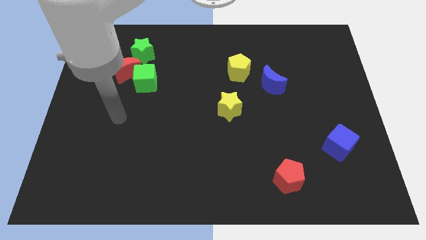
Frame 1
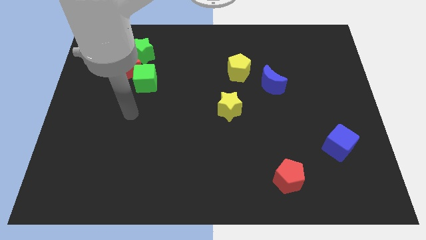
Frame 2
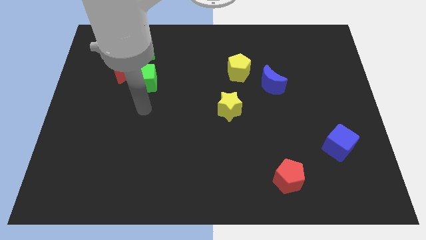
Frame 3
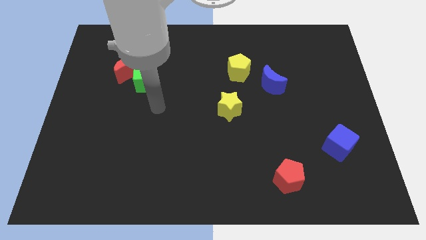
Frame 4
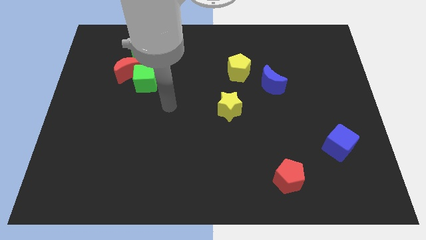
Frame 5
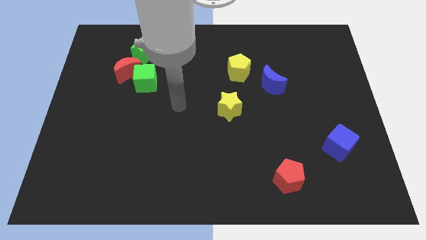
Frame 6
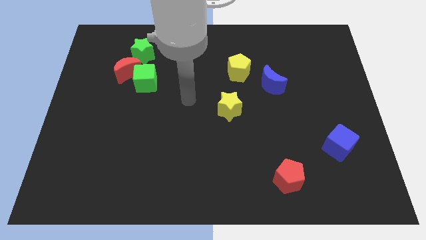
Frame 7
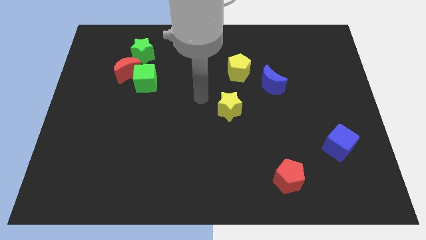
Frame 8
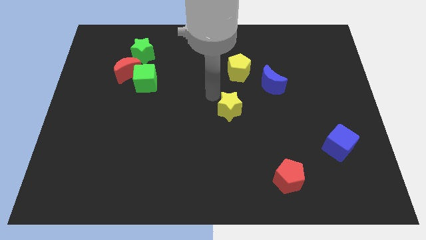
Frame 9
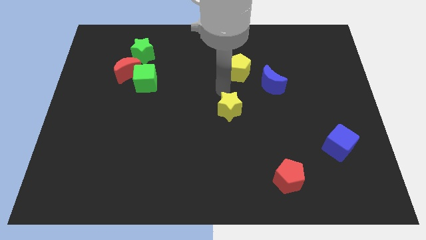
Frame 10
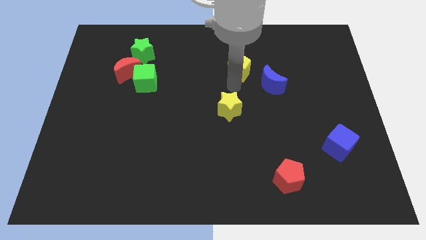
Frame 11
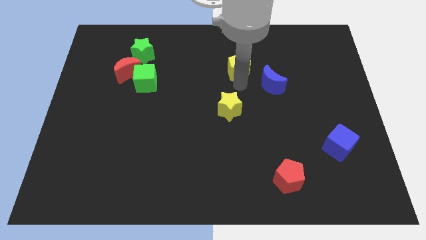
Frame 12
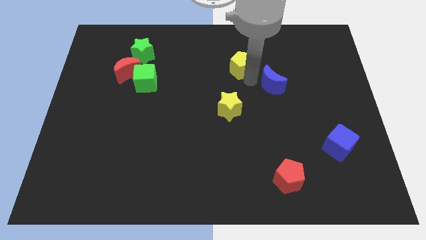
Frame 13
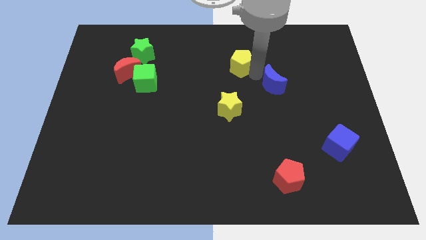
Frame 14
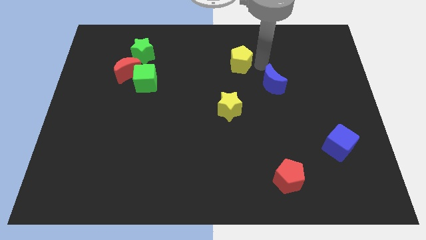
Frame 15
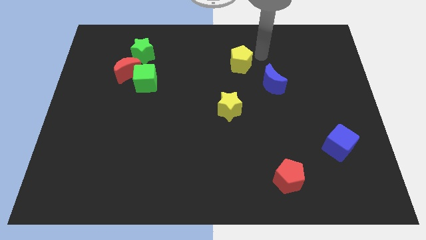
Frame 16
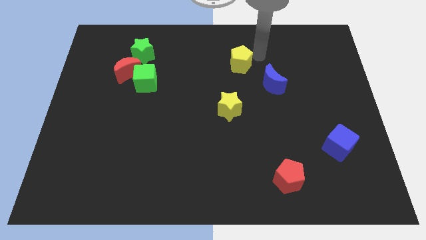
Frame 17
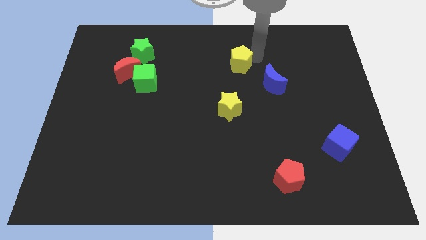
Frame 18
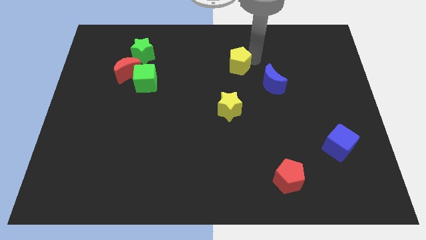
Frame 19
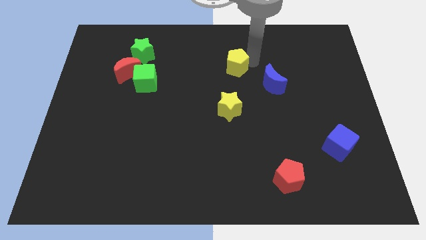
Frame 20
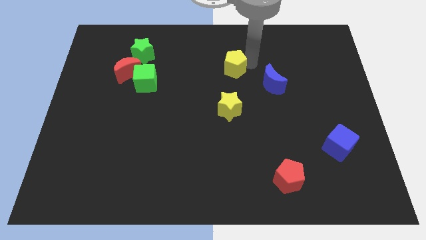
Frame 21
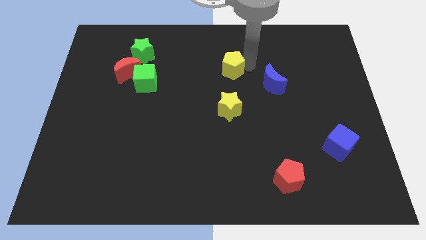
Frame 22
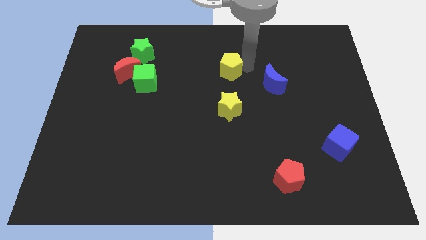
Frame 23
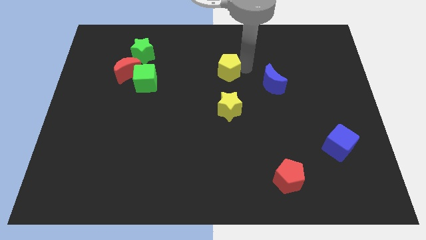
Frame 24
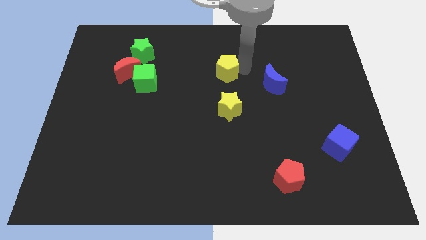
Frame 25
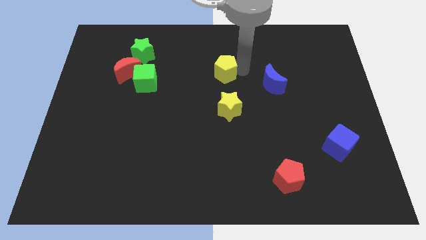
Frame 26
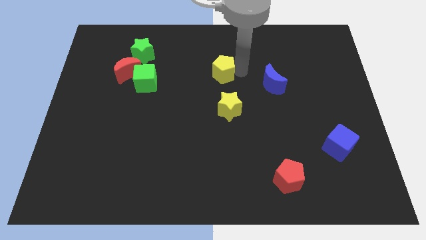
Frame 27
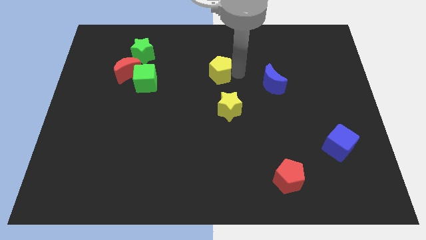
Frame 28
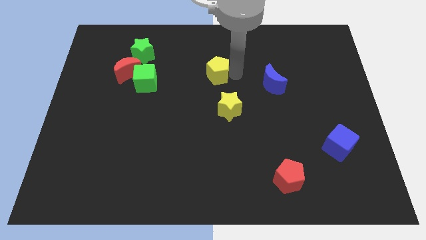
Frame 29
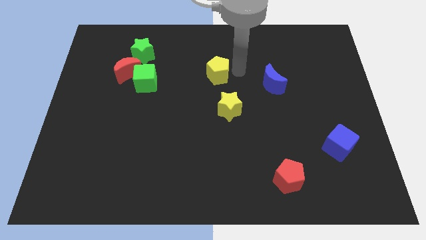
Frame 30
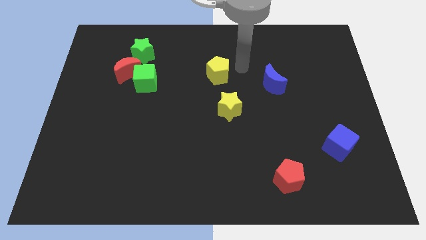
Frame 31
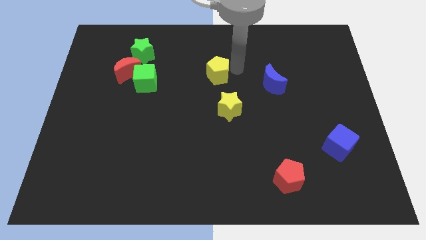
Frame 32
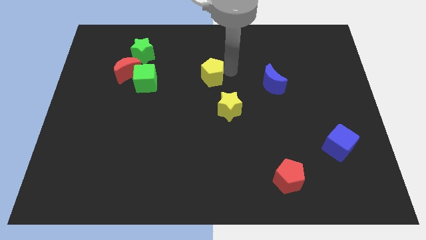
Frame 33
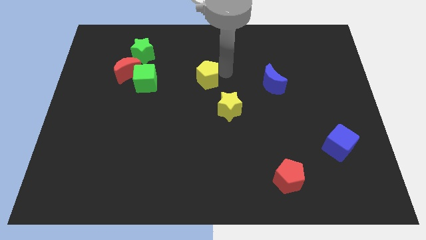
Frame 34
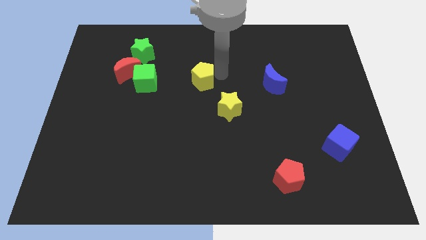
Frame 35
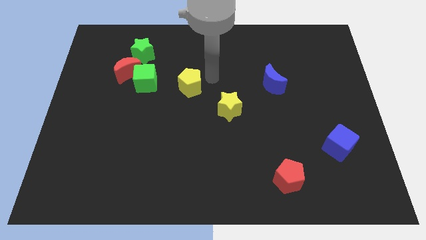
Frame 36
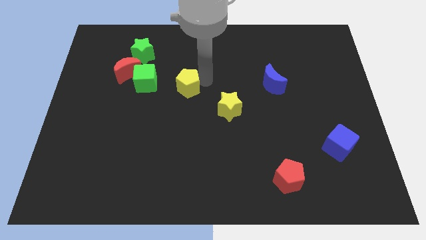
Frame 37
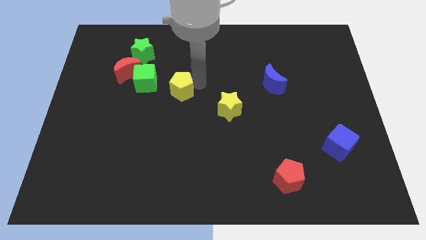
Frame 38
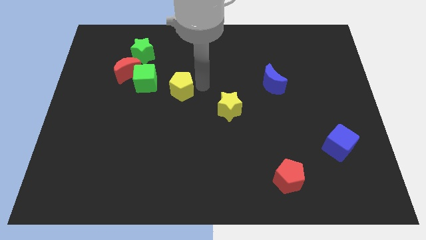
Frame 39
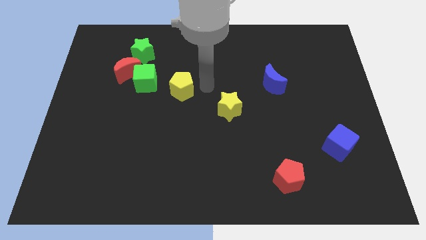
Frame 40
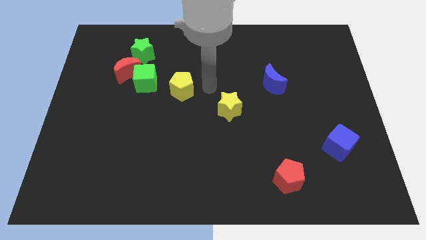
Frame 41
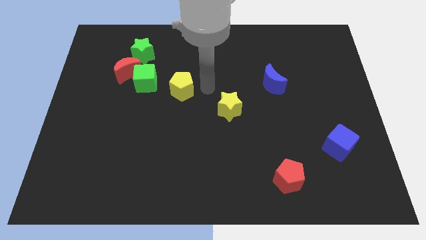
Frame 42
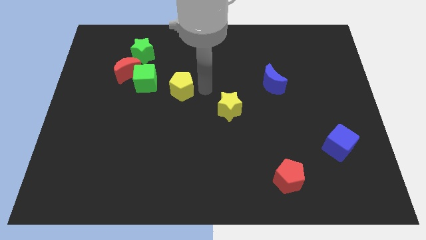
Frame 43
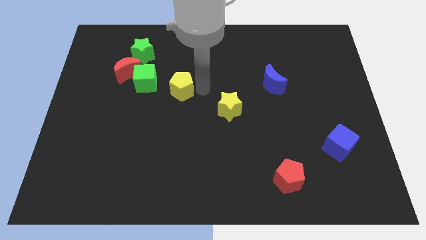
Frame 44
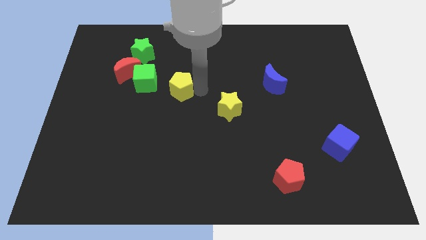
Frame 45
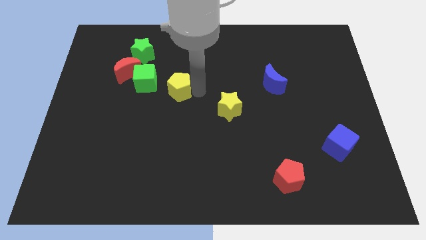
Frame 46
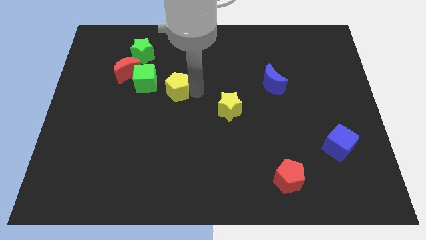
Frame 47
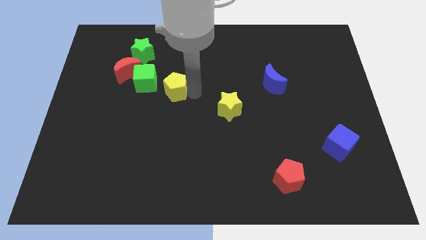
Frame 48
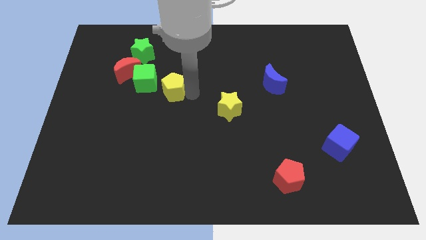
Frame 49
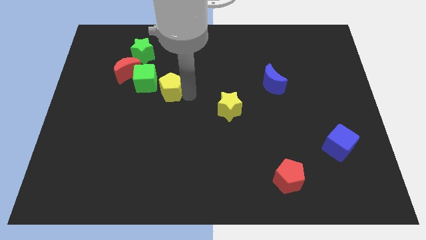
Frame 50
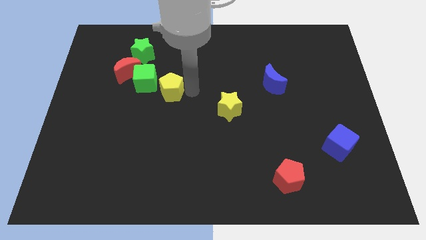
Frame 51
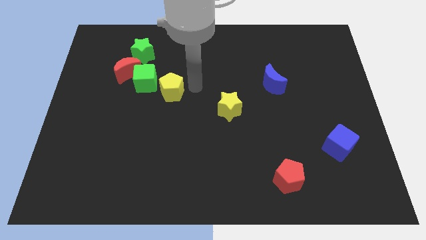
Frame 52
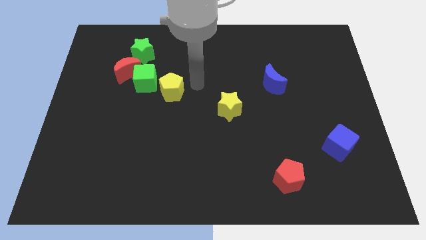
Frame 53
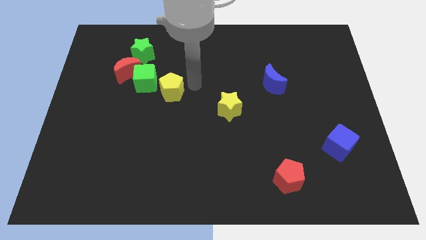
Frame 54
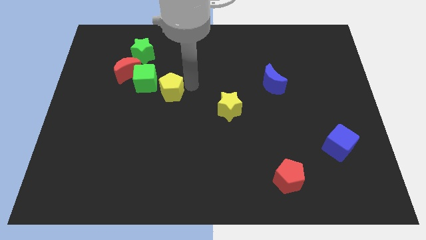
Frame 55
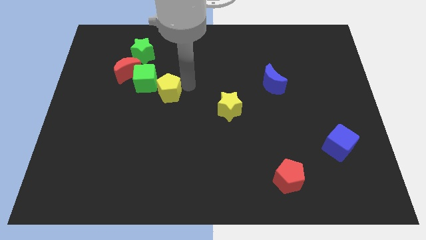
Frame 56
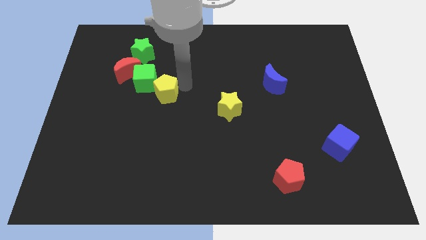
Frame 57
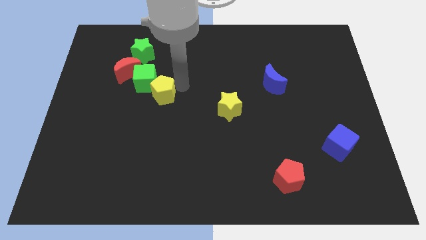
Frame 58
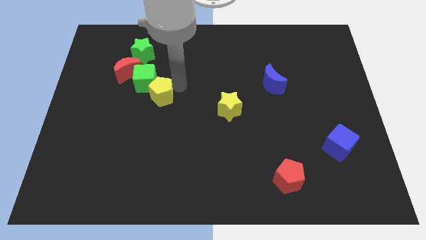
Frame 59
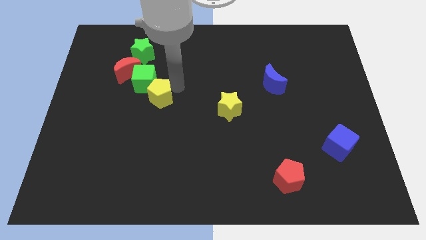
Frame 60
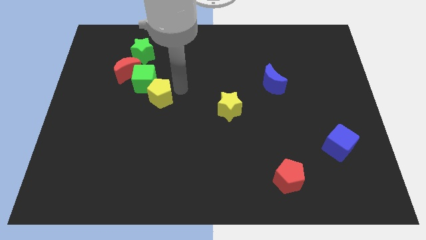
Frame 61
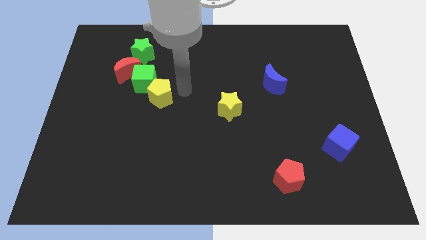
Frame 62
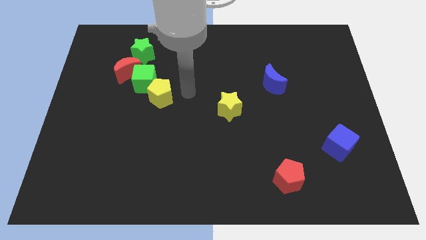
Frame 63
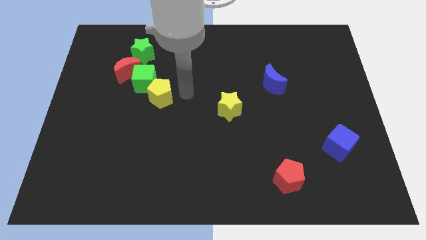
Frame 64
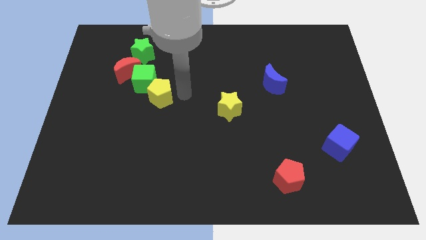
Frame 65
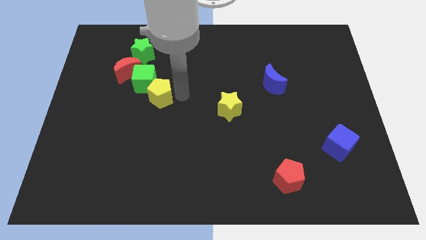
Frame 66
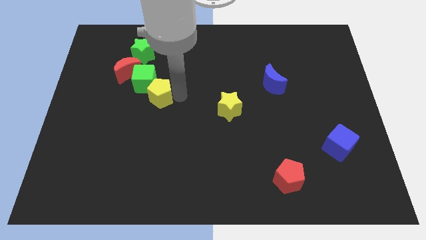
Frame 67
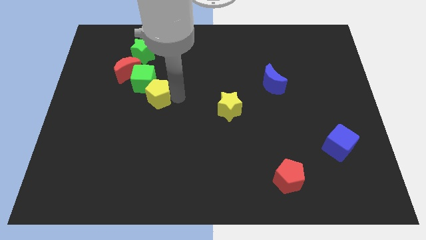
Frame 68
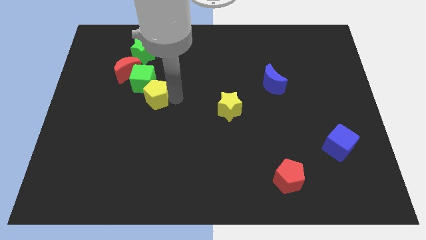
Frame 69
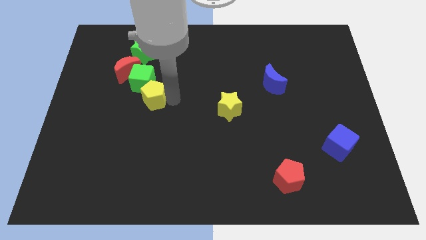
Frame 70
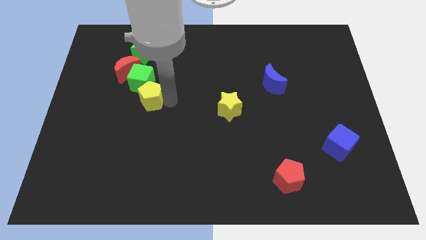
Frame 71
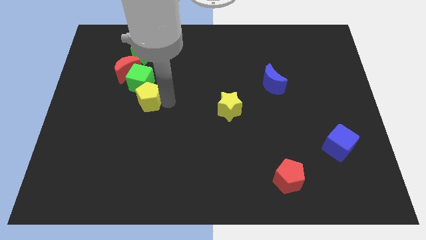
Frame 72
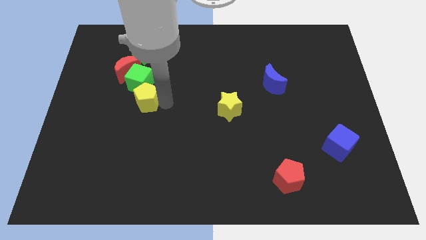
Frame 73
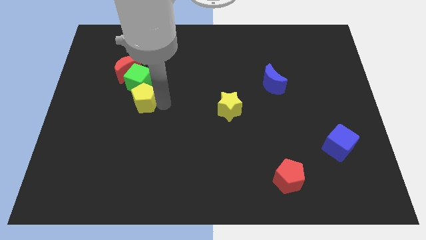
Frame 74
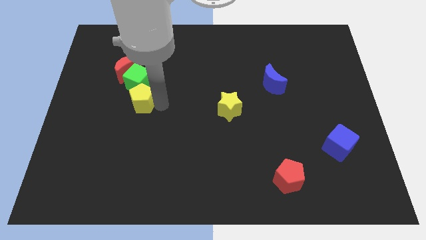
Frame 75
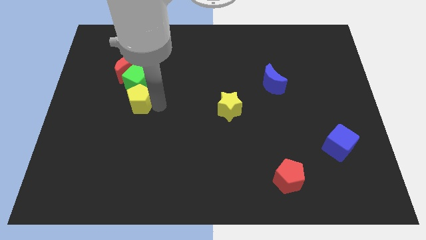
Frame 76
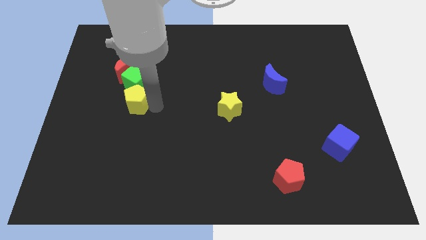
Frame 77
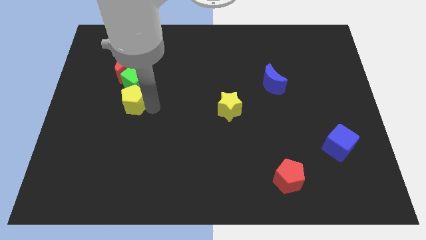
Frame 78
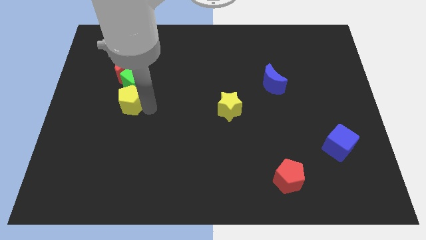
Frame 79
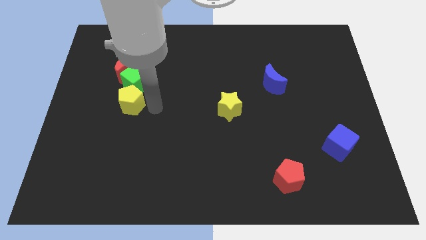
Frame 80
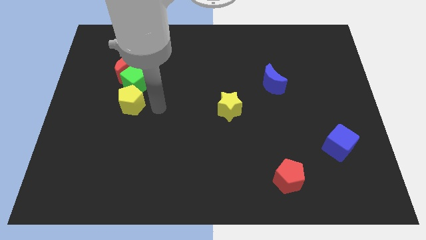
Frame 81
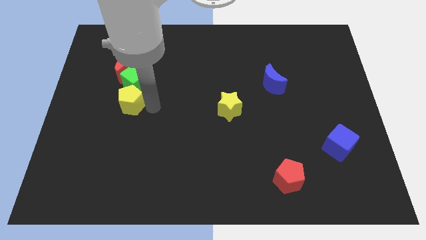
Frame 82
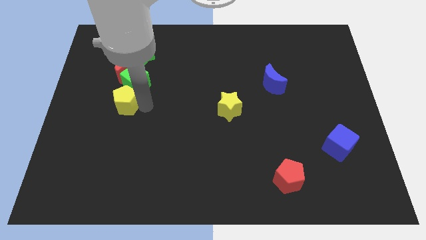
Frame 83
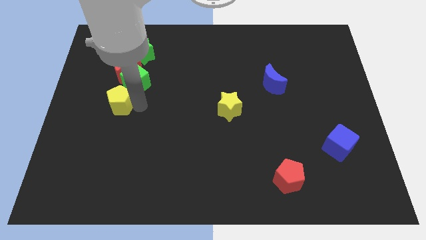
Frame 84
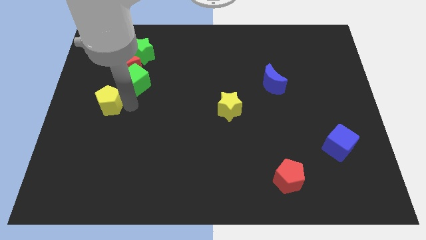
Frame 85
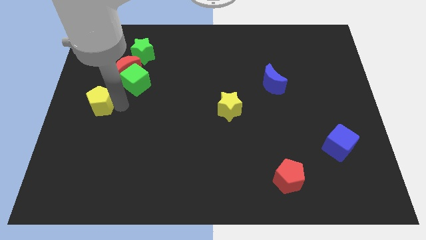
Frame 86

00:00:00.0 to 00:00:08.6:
move the yellow pentagon to the left side of the board
